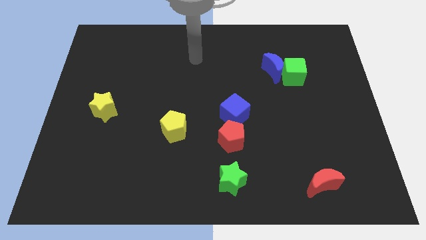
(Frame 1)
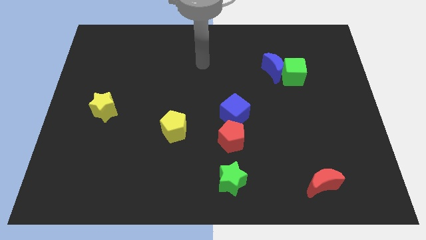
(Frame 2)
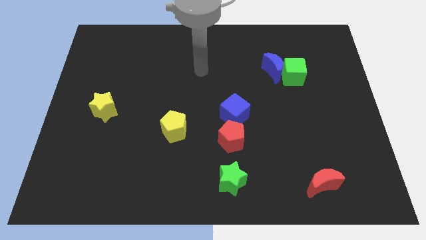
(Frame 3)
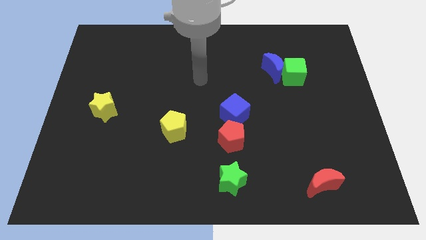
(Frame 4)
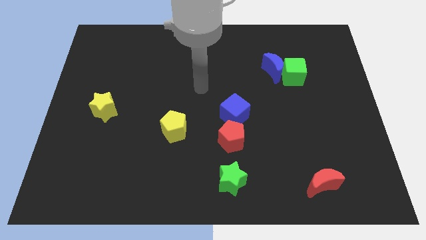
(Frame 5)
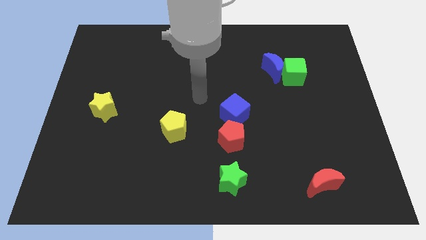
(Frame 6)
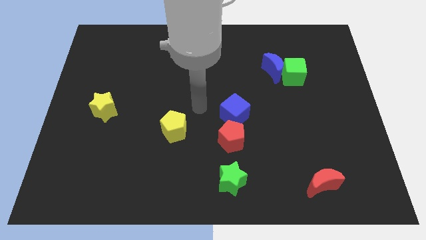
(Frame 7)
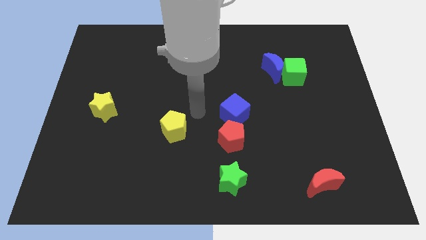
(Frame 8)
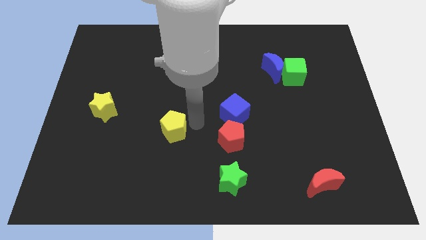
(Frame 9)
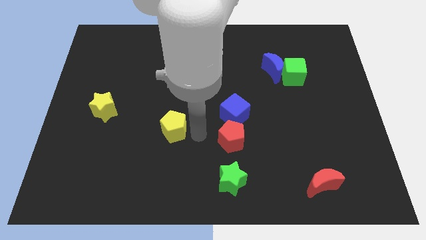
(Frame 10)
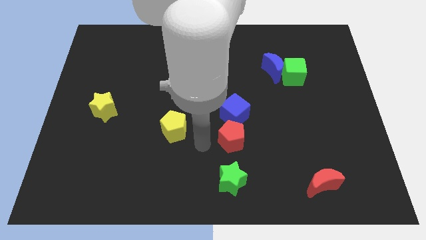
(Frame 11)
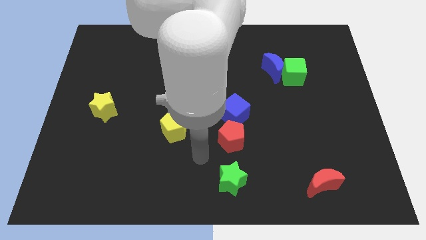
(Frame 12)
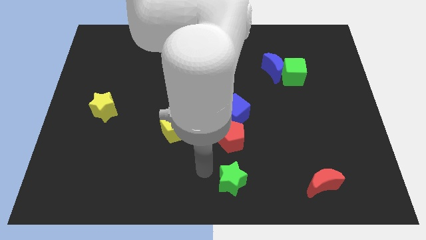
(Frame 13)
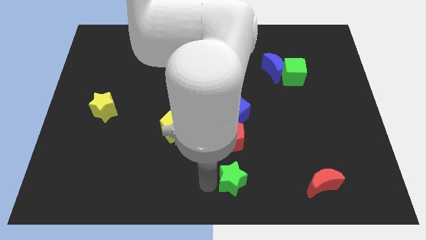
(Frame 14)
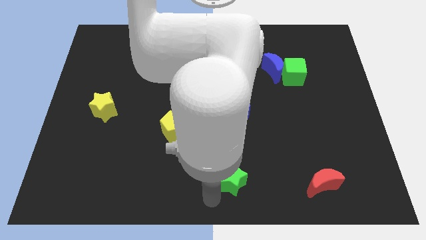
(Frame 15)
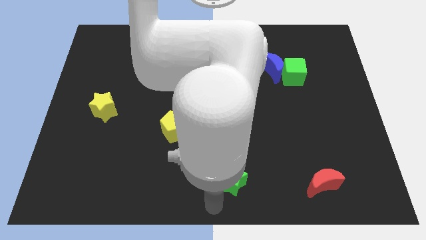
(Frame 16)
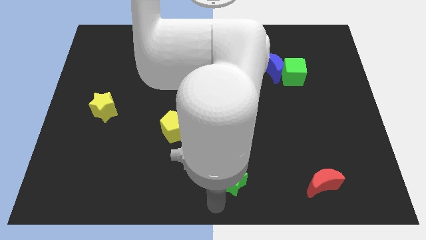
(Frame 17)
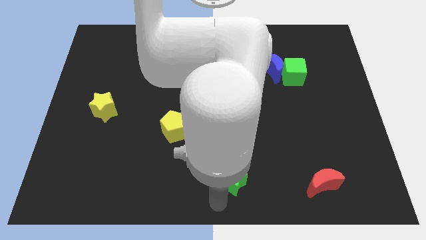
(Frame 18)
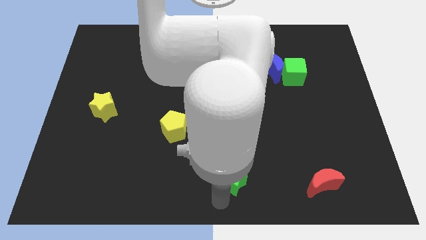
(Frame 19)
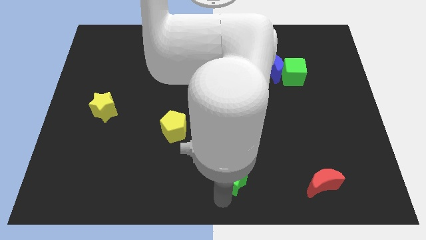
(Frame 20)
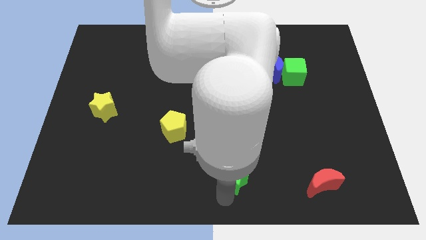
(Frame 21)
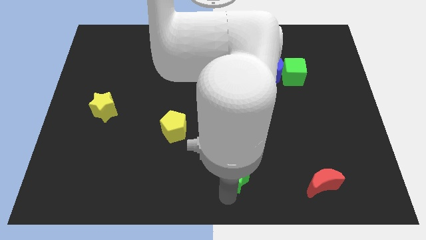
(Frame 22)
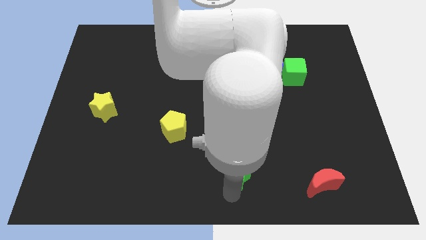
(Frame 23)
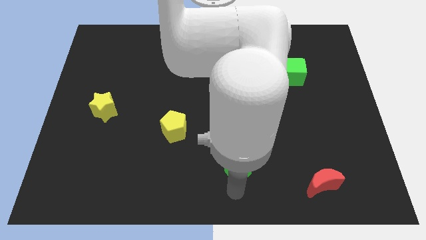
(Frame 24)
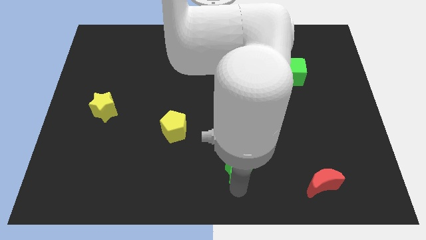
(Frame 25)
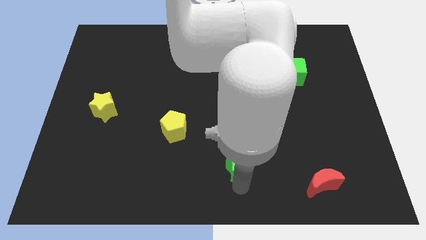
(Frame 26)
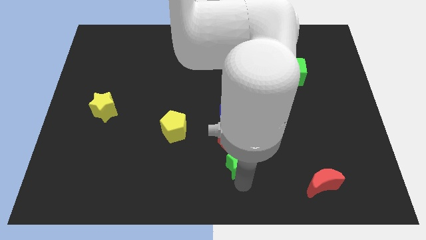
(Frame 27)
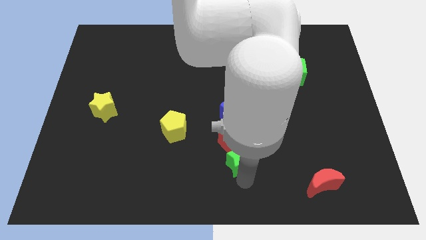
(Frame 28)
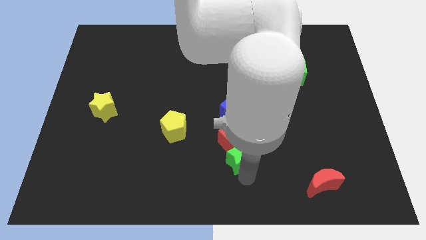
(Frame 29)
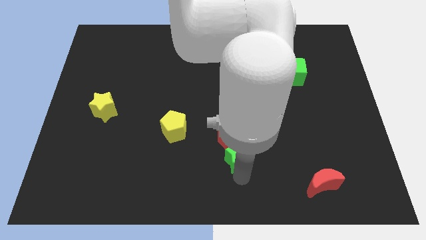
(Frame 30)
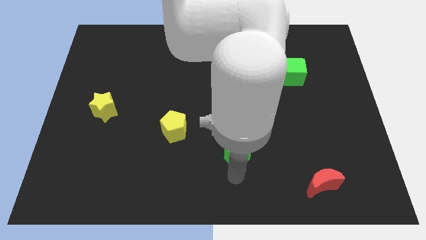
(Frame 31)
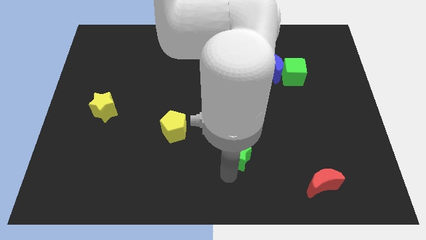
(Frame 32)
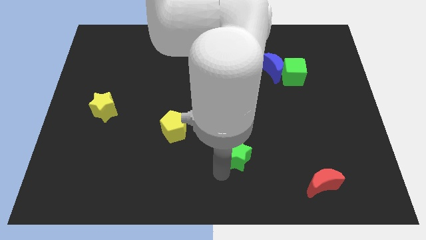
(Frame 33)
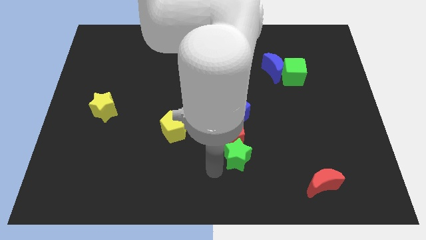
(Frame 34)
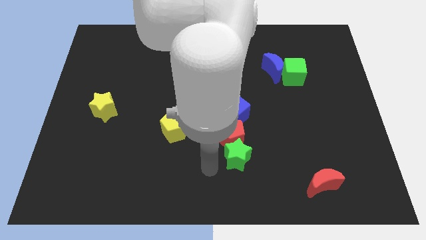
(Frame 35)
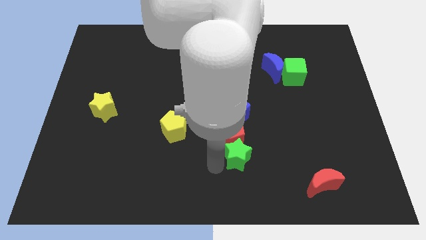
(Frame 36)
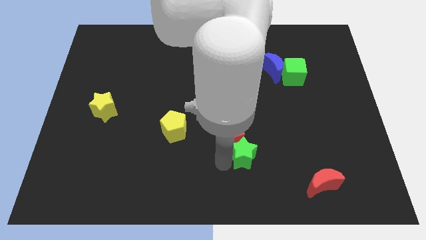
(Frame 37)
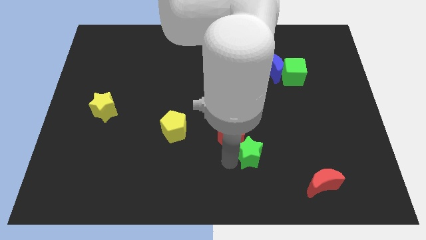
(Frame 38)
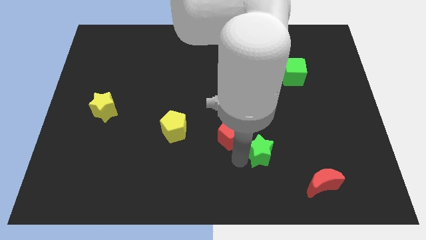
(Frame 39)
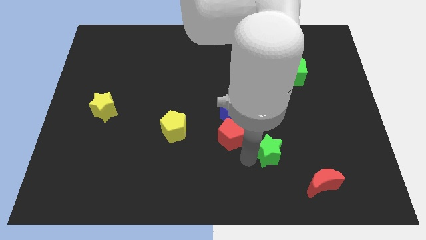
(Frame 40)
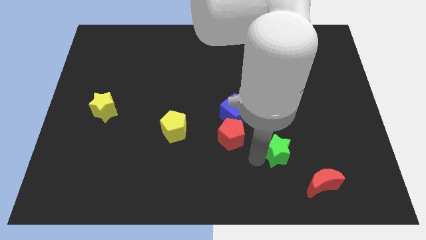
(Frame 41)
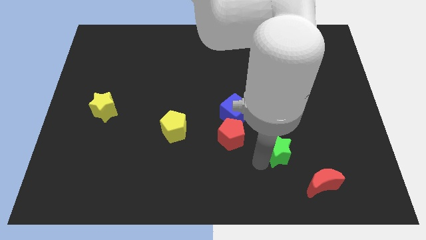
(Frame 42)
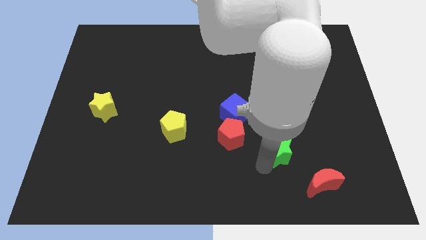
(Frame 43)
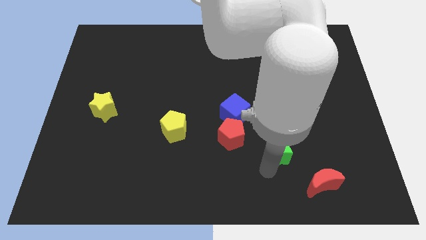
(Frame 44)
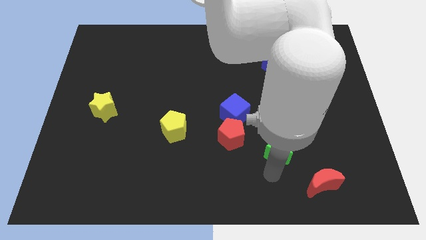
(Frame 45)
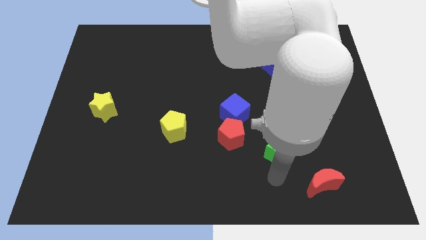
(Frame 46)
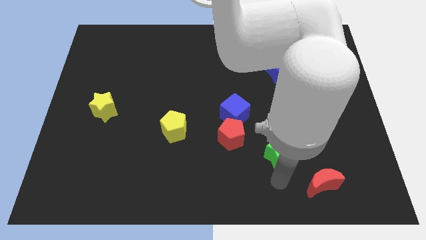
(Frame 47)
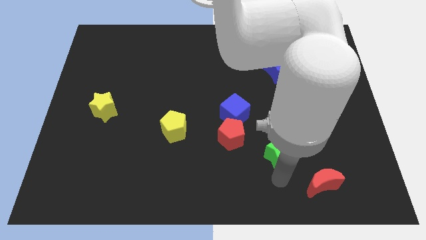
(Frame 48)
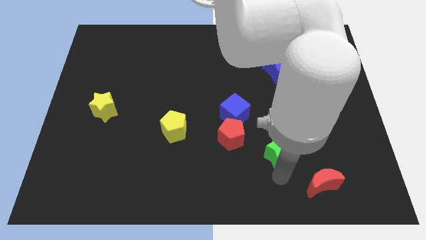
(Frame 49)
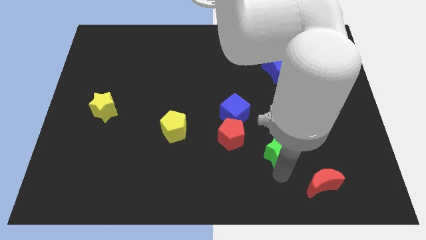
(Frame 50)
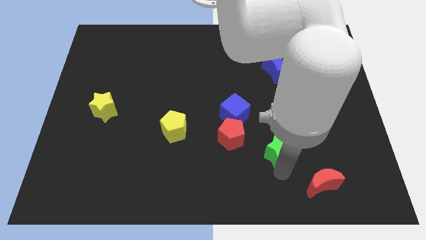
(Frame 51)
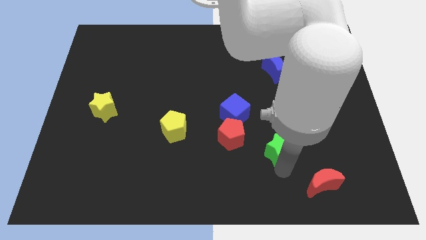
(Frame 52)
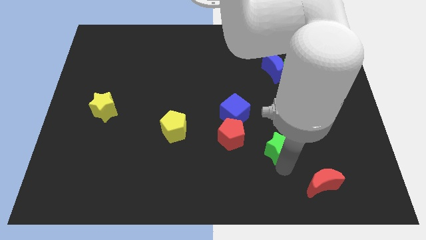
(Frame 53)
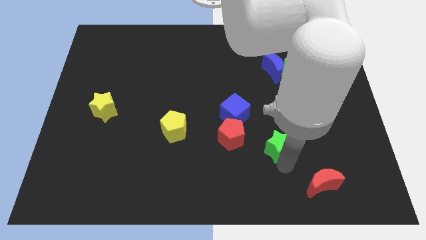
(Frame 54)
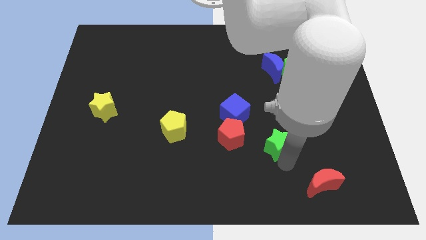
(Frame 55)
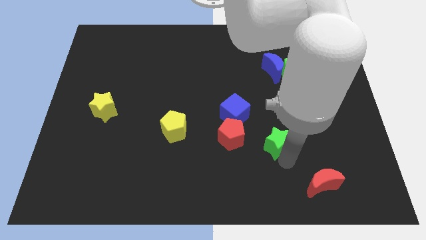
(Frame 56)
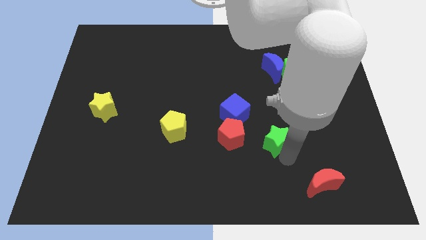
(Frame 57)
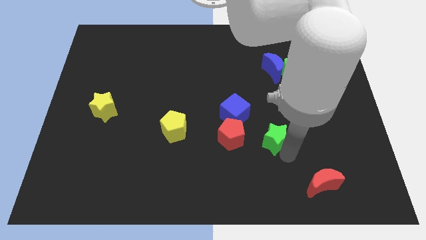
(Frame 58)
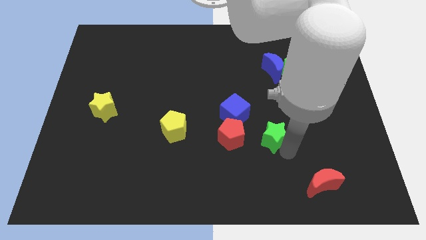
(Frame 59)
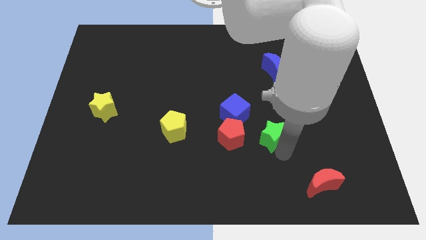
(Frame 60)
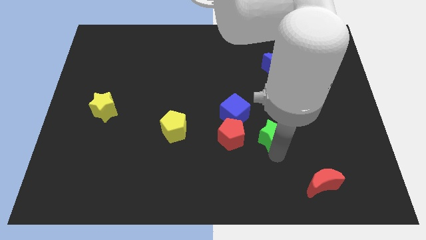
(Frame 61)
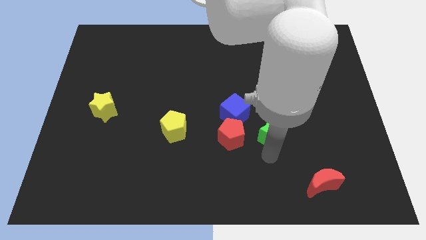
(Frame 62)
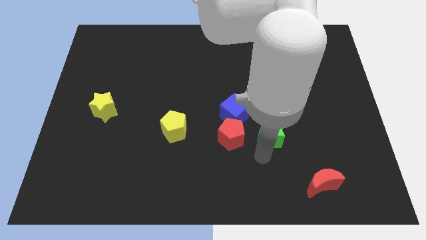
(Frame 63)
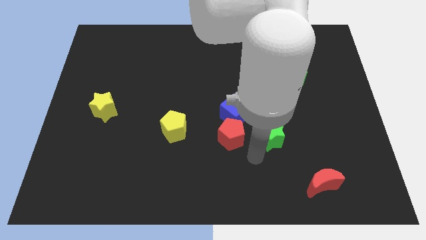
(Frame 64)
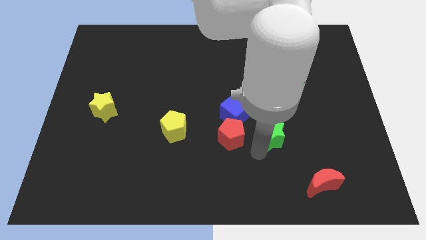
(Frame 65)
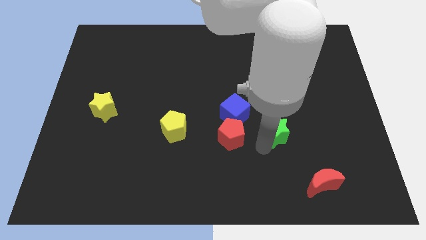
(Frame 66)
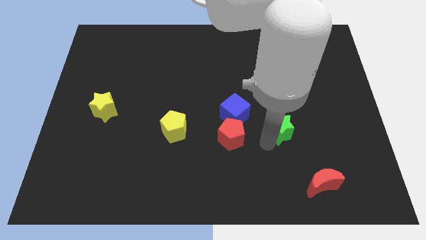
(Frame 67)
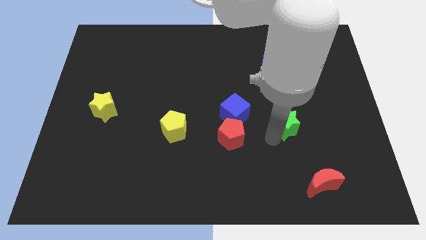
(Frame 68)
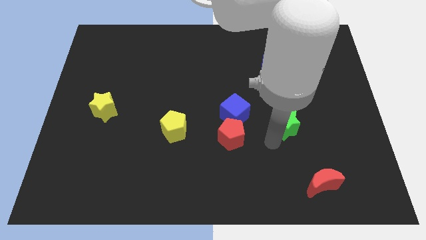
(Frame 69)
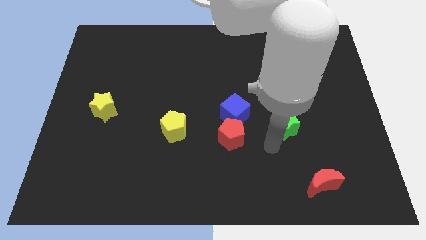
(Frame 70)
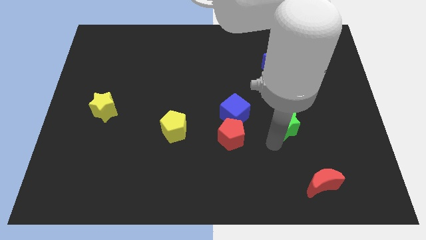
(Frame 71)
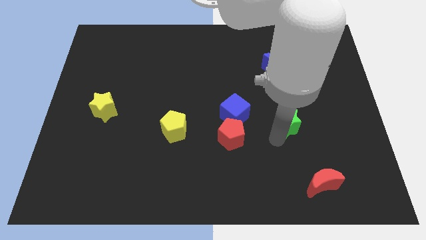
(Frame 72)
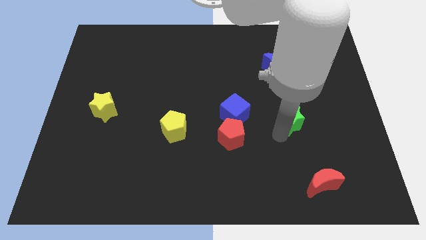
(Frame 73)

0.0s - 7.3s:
slide the green star upwards and to the right
